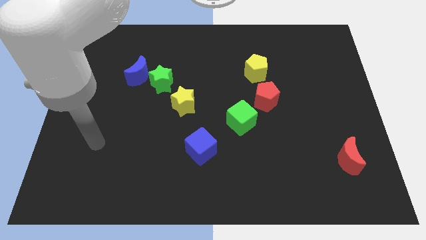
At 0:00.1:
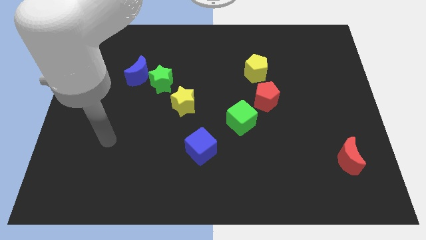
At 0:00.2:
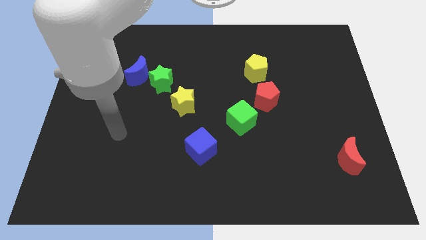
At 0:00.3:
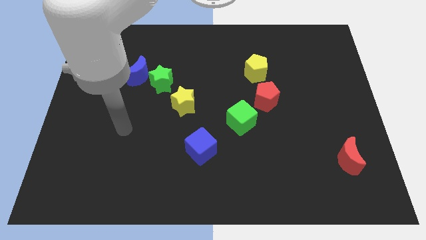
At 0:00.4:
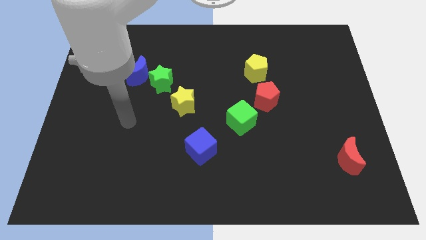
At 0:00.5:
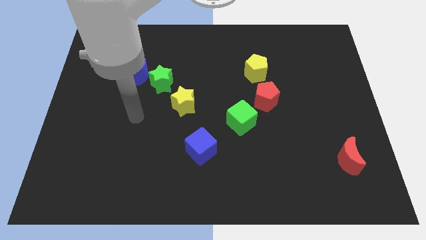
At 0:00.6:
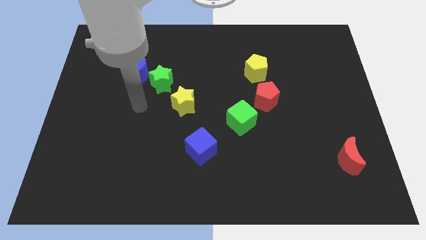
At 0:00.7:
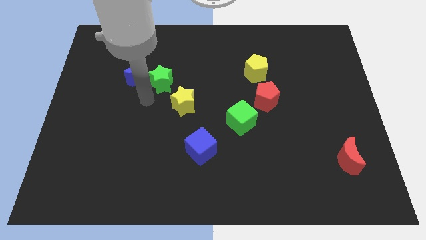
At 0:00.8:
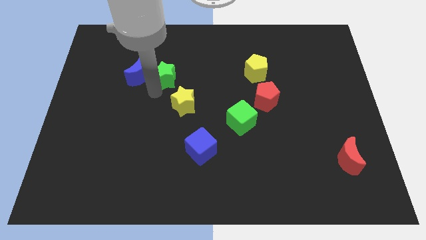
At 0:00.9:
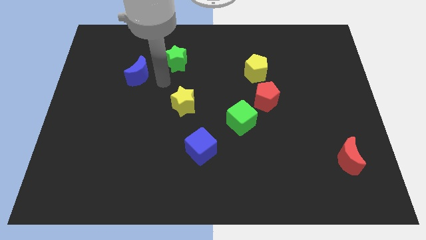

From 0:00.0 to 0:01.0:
pull the blue moon apart from the green star

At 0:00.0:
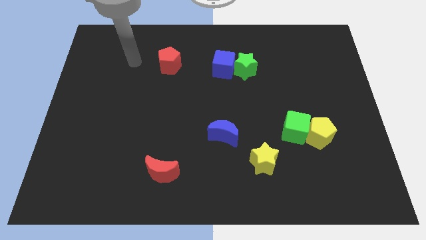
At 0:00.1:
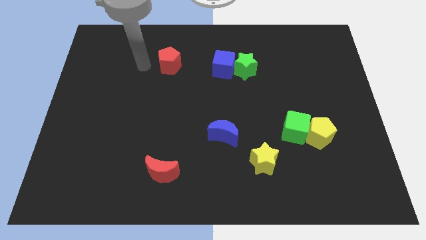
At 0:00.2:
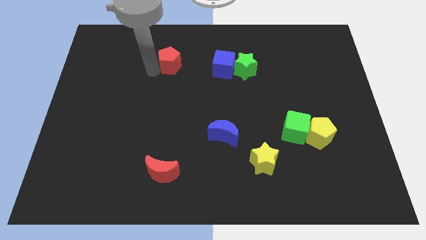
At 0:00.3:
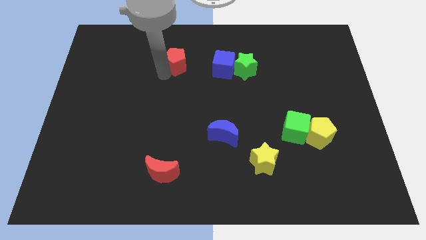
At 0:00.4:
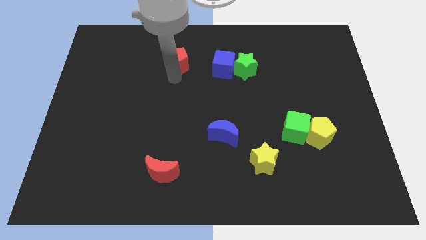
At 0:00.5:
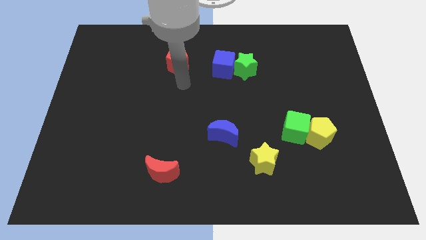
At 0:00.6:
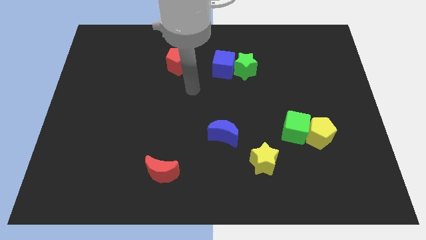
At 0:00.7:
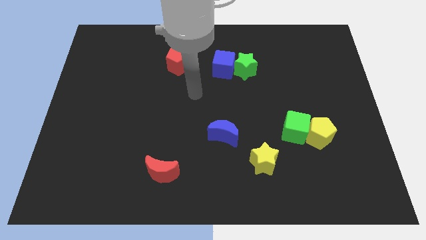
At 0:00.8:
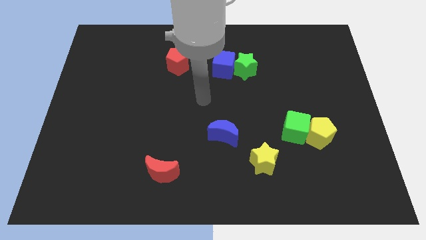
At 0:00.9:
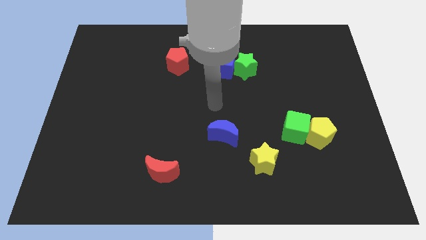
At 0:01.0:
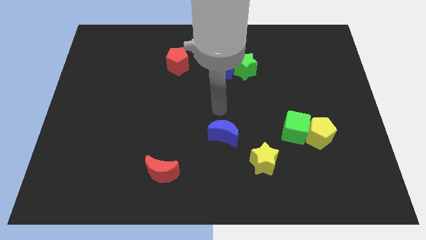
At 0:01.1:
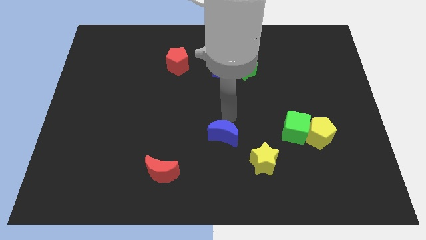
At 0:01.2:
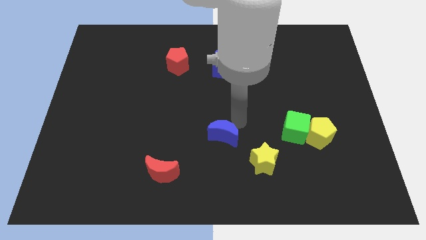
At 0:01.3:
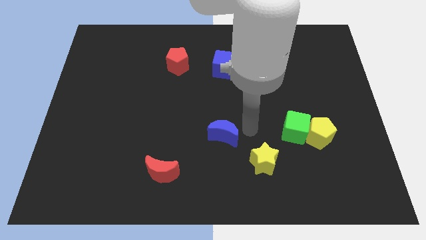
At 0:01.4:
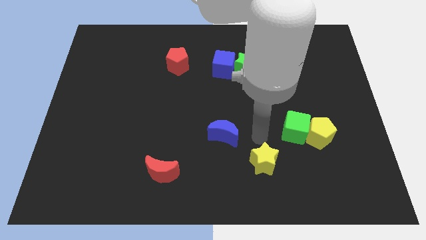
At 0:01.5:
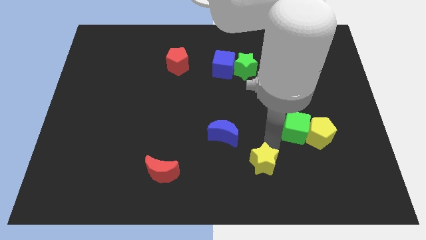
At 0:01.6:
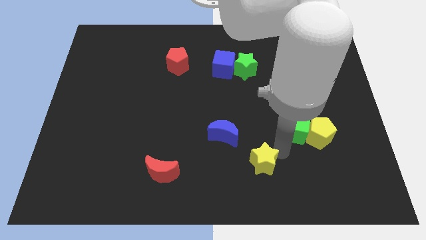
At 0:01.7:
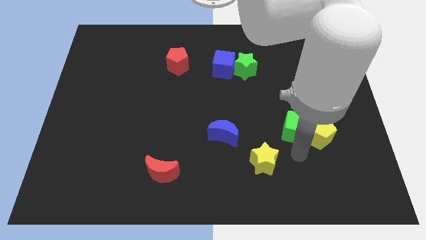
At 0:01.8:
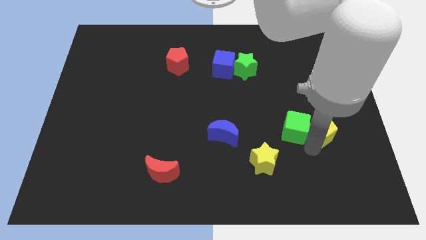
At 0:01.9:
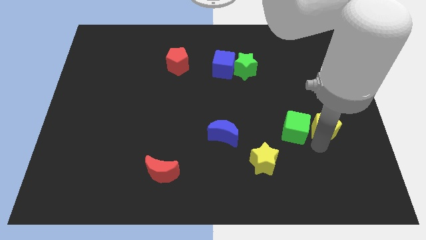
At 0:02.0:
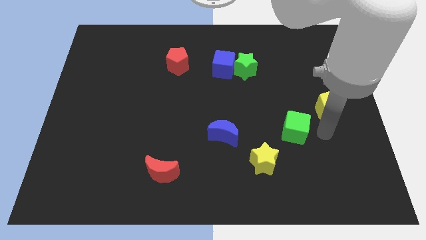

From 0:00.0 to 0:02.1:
move the green cube away from the yellow pentagon

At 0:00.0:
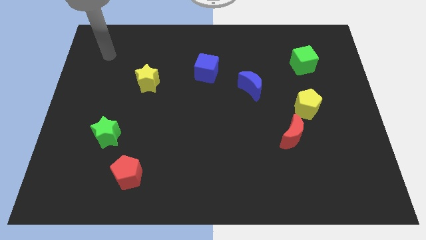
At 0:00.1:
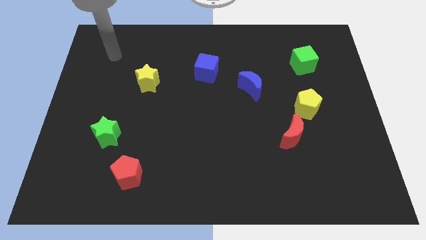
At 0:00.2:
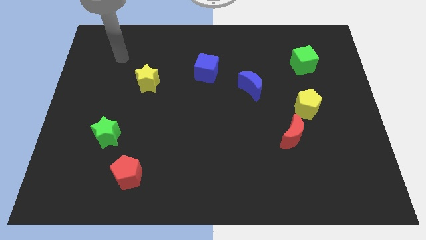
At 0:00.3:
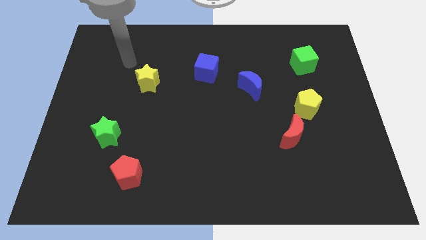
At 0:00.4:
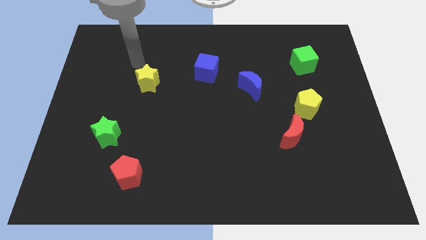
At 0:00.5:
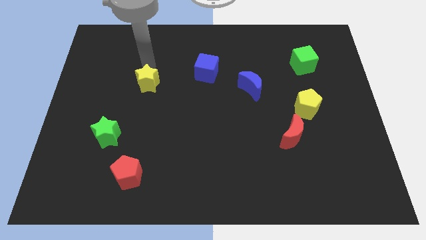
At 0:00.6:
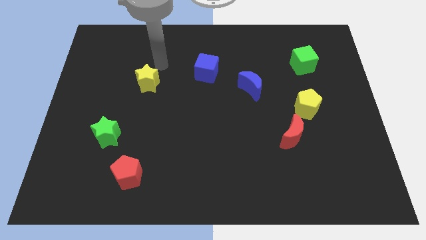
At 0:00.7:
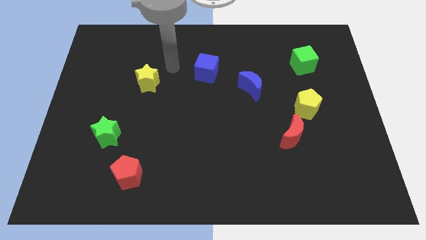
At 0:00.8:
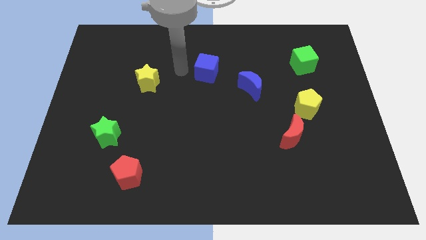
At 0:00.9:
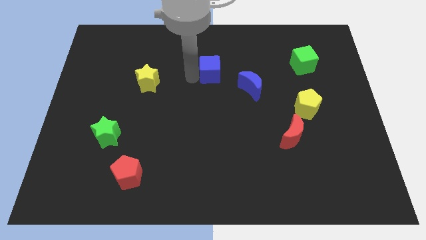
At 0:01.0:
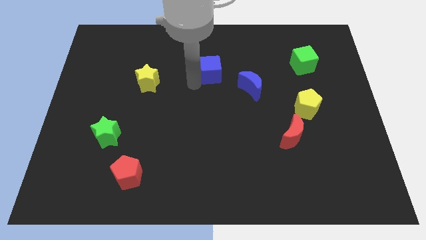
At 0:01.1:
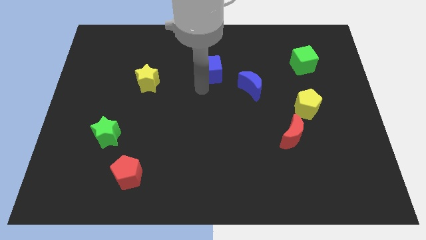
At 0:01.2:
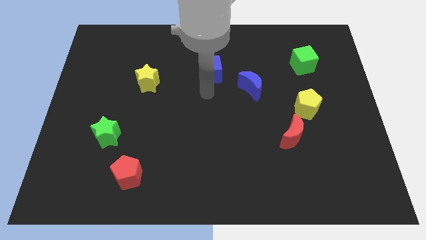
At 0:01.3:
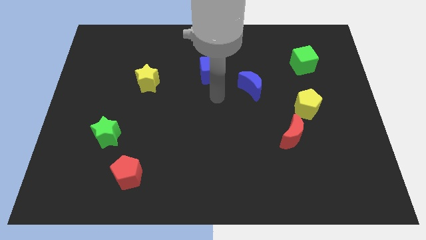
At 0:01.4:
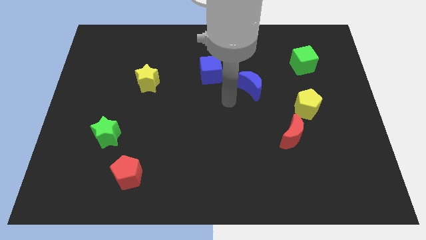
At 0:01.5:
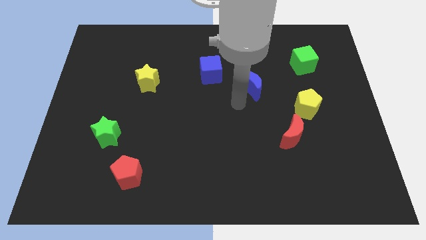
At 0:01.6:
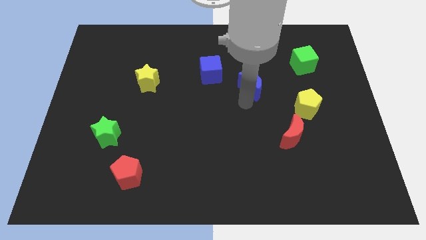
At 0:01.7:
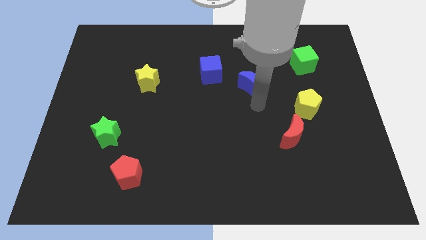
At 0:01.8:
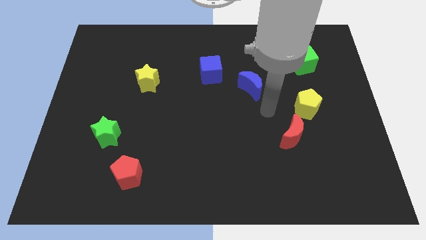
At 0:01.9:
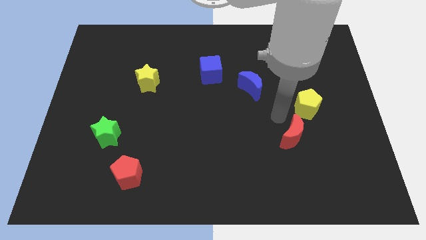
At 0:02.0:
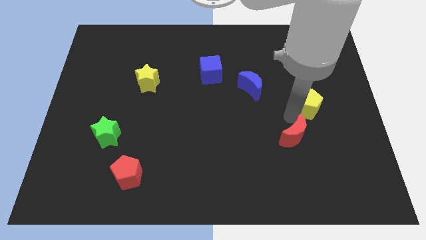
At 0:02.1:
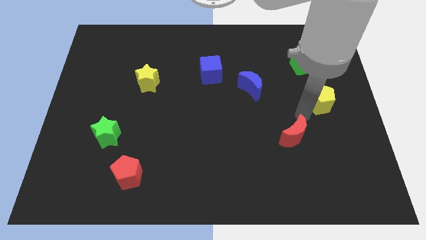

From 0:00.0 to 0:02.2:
separate the red moon from the yellow pentagon

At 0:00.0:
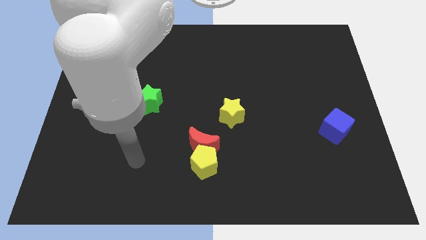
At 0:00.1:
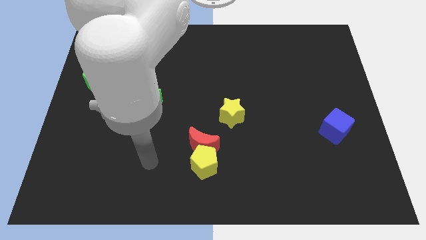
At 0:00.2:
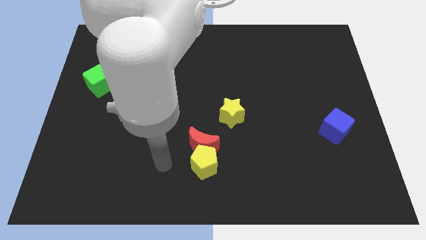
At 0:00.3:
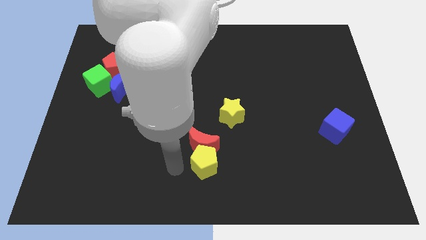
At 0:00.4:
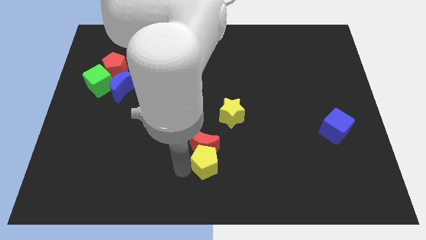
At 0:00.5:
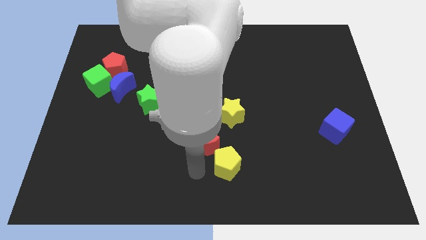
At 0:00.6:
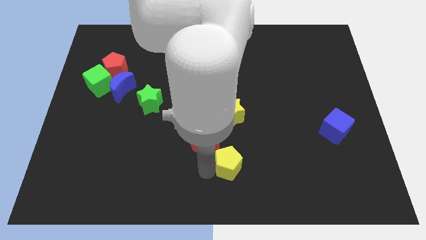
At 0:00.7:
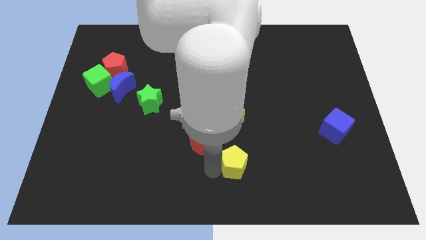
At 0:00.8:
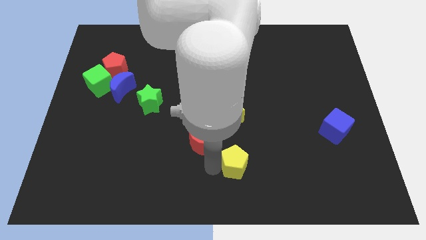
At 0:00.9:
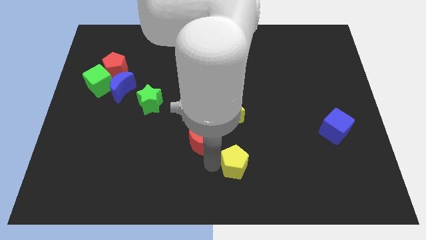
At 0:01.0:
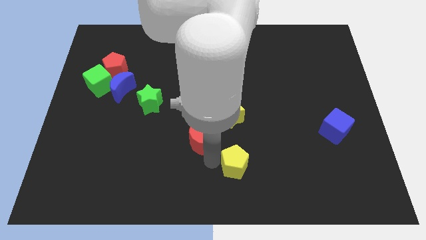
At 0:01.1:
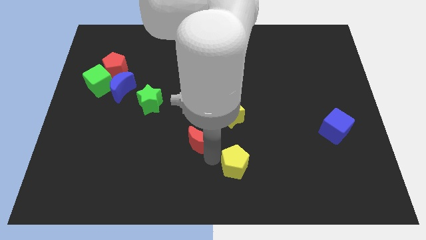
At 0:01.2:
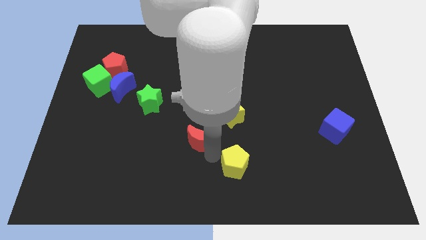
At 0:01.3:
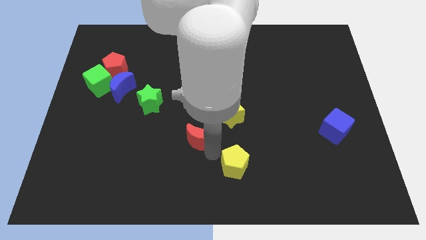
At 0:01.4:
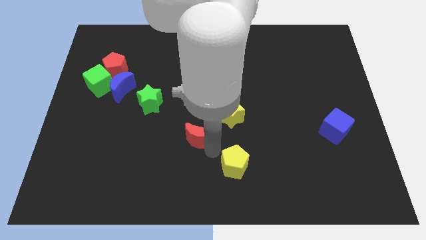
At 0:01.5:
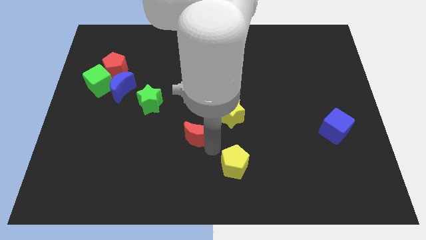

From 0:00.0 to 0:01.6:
pull the red moon apart from the yellow pentagon

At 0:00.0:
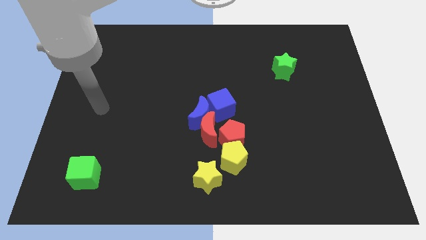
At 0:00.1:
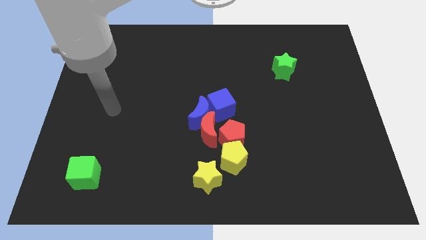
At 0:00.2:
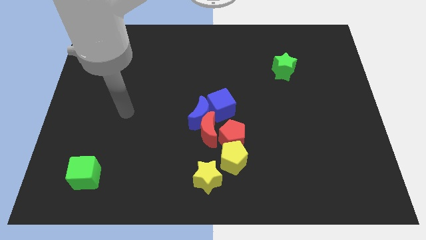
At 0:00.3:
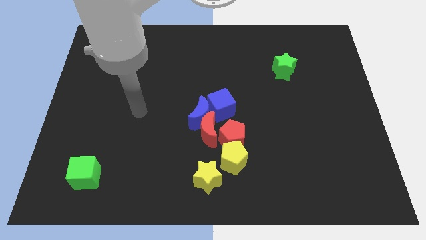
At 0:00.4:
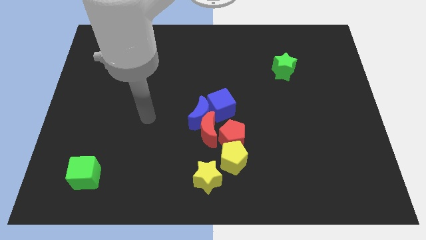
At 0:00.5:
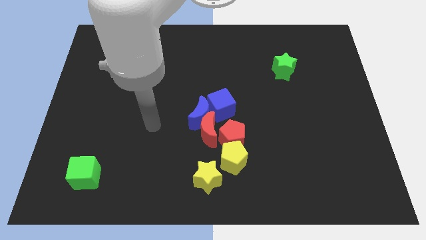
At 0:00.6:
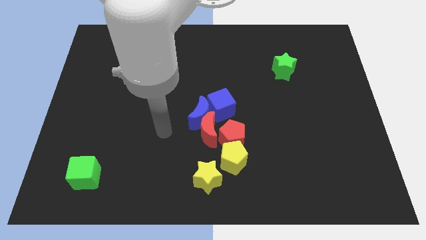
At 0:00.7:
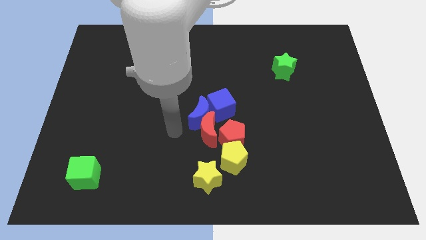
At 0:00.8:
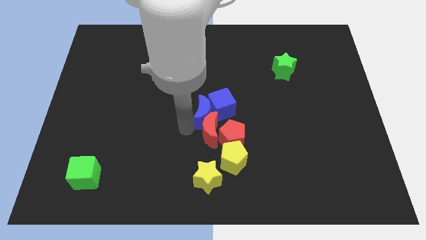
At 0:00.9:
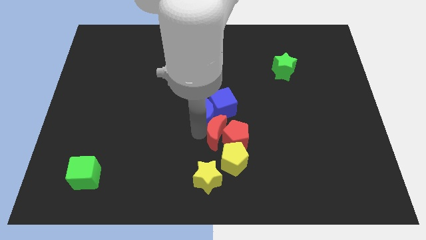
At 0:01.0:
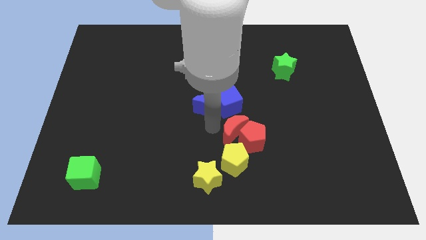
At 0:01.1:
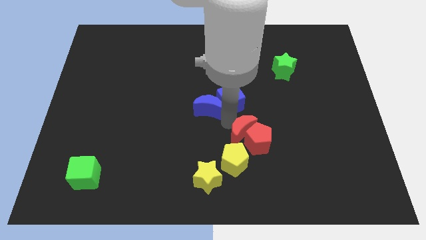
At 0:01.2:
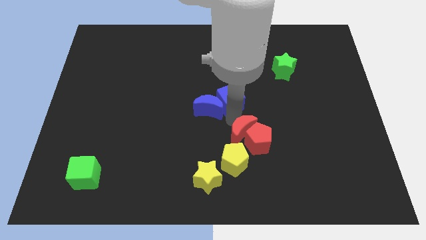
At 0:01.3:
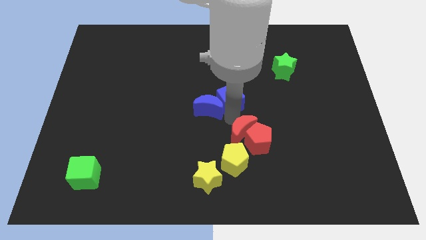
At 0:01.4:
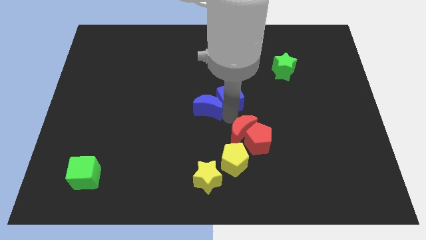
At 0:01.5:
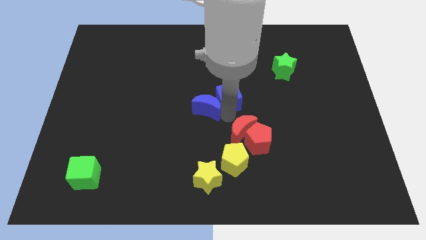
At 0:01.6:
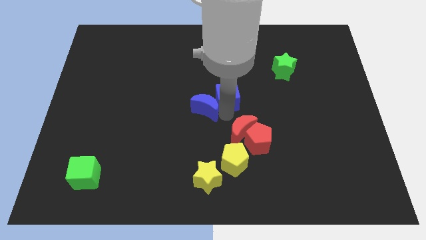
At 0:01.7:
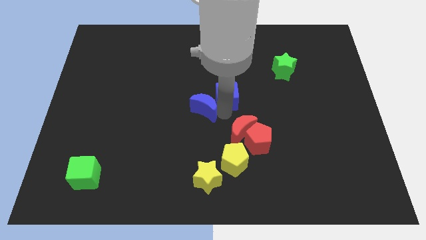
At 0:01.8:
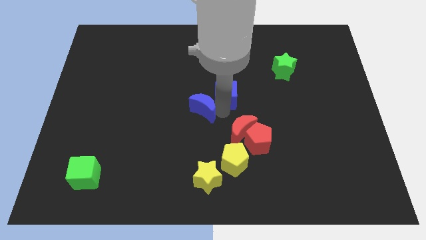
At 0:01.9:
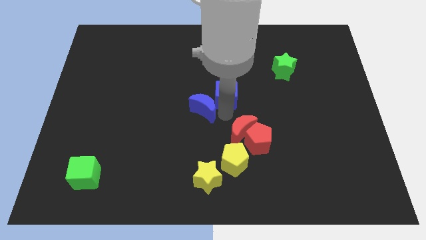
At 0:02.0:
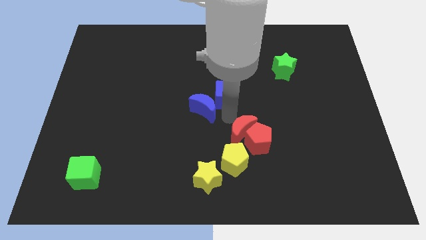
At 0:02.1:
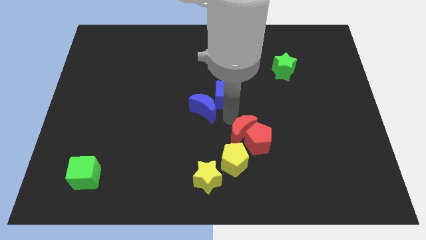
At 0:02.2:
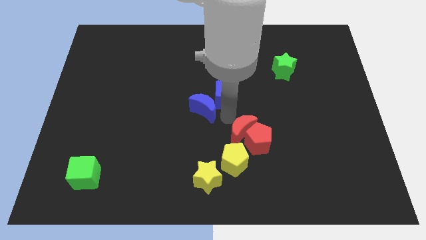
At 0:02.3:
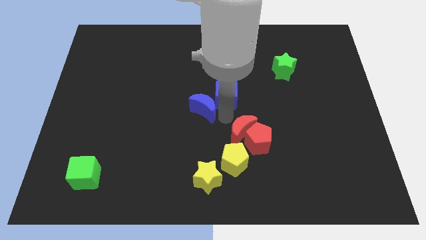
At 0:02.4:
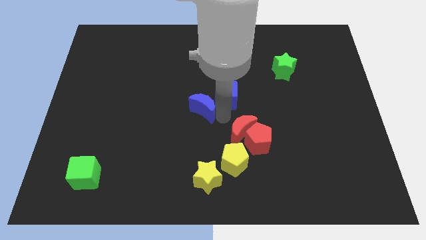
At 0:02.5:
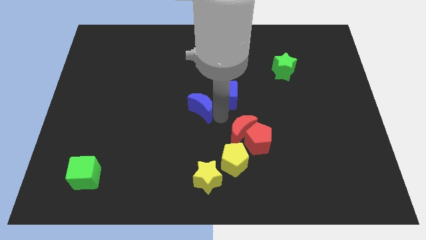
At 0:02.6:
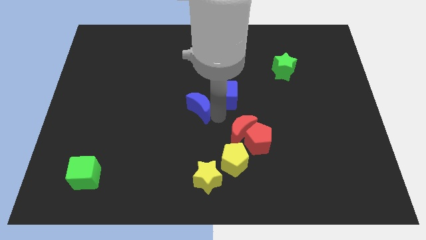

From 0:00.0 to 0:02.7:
separate the blue moon from the red moon, blue cube, and red pentagon
